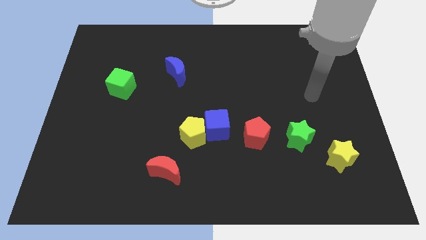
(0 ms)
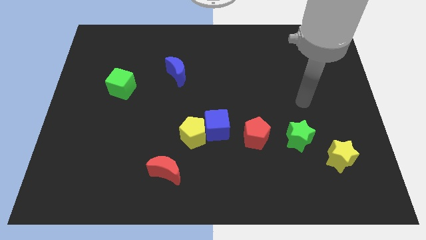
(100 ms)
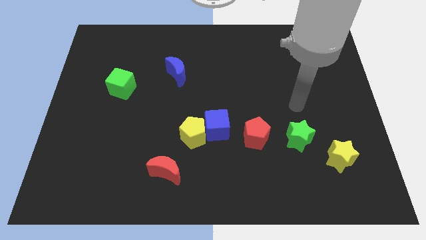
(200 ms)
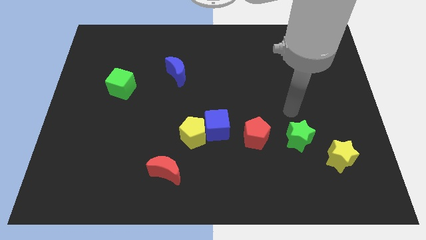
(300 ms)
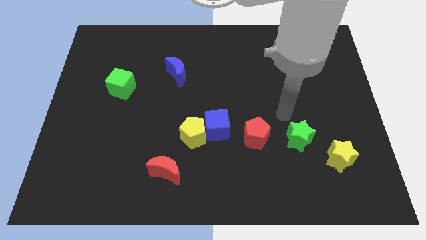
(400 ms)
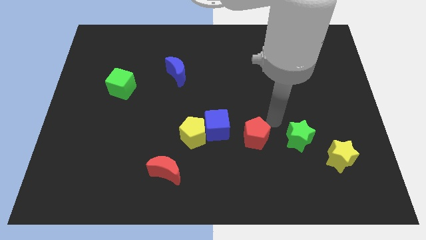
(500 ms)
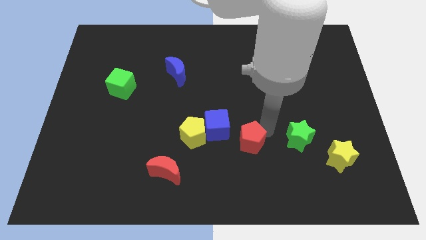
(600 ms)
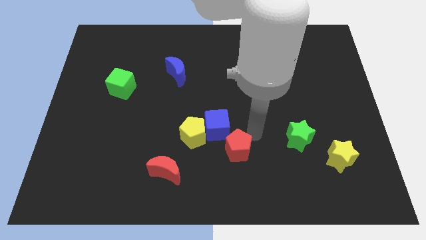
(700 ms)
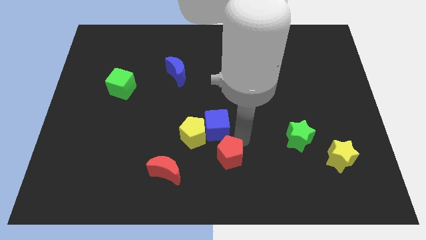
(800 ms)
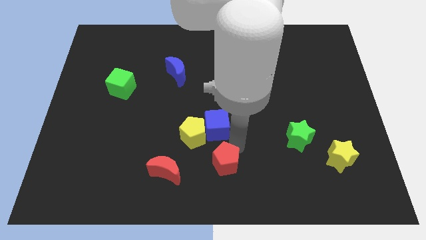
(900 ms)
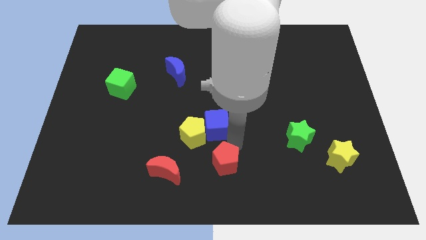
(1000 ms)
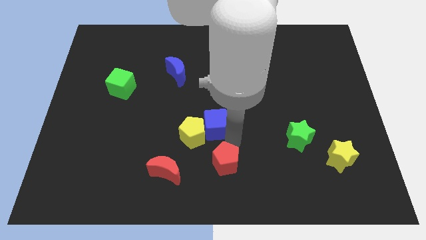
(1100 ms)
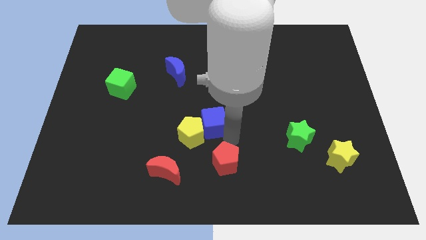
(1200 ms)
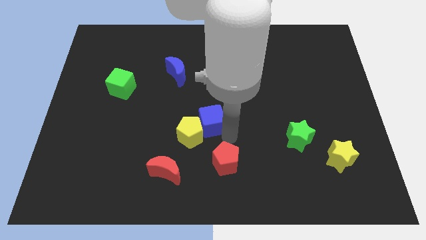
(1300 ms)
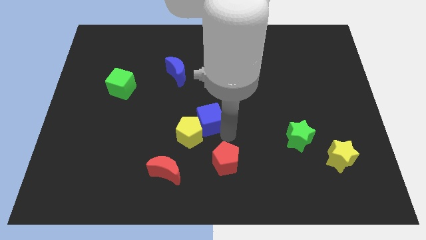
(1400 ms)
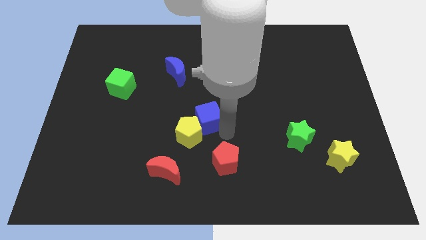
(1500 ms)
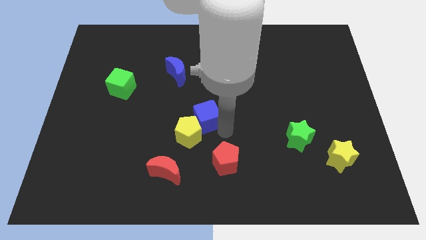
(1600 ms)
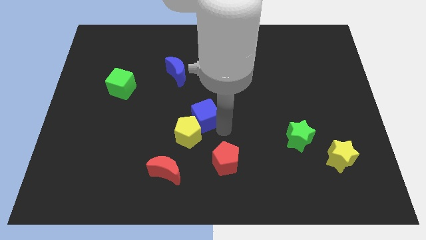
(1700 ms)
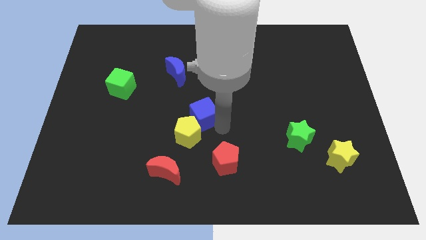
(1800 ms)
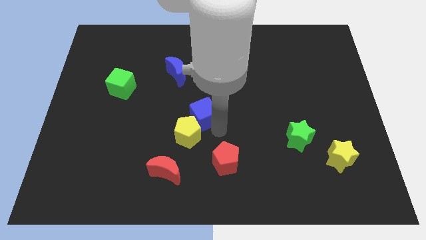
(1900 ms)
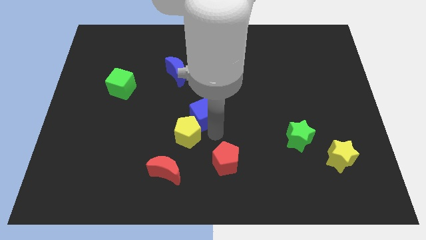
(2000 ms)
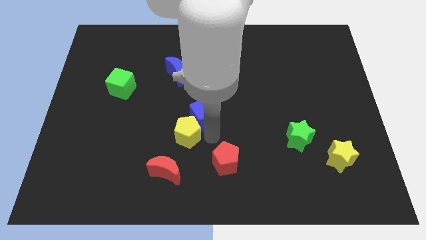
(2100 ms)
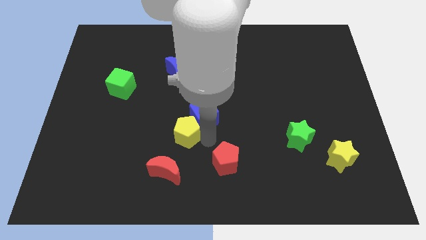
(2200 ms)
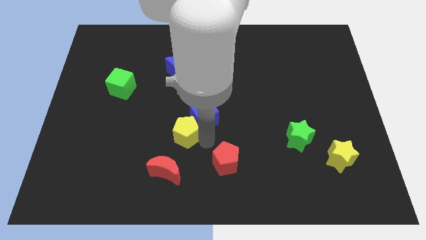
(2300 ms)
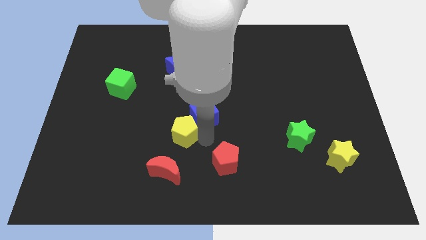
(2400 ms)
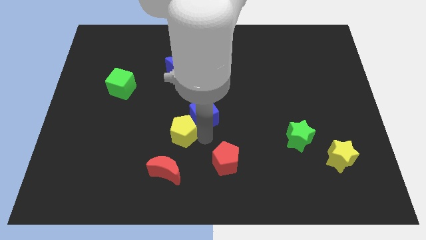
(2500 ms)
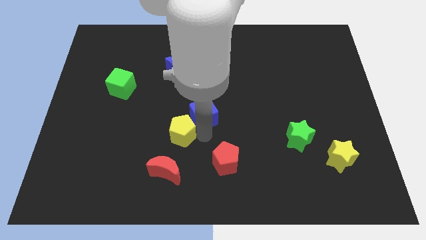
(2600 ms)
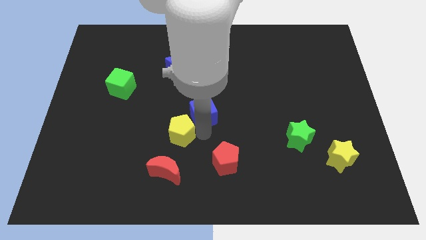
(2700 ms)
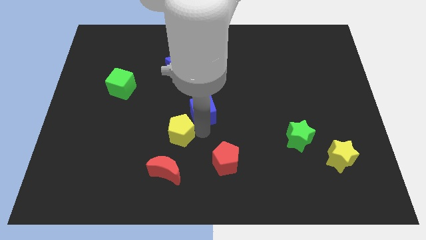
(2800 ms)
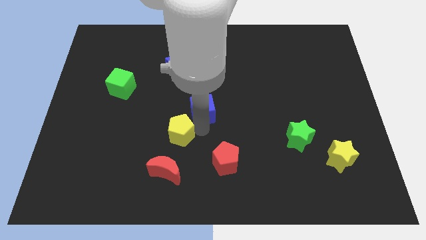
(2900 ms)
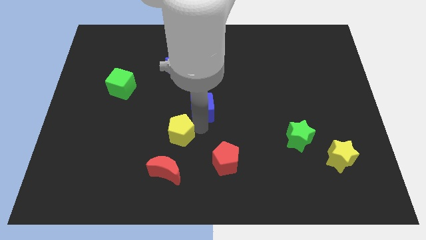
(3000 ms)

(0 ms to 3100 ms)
separate the blue cube from the yellow pentagon and red pentagon

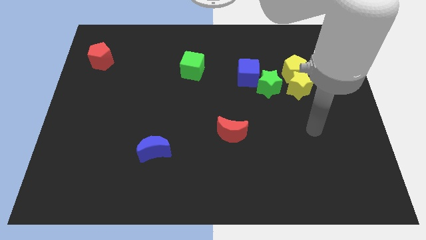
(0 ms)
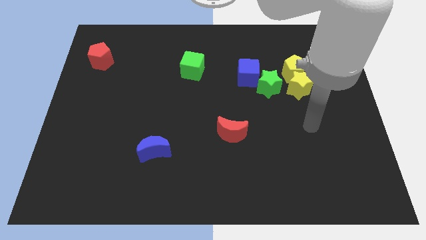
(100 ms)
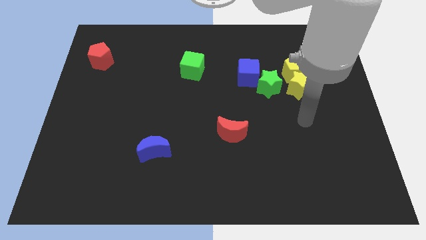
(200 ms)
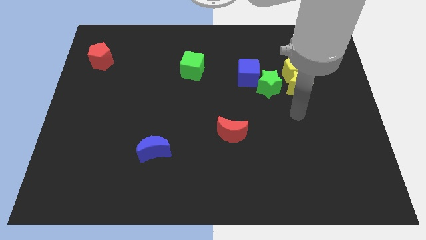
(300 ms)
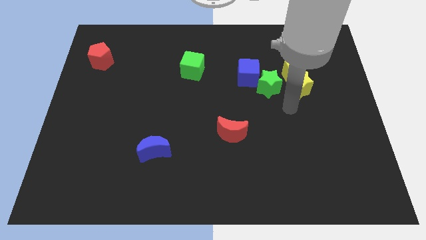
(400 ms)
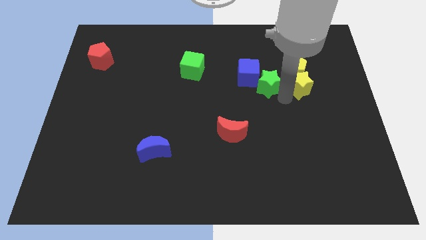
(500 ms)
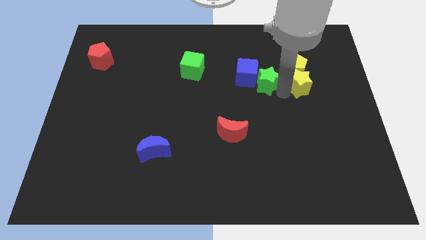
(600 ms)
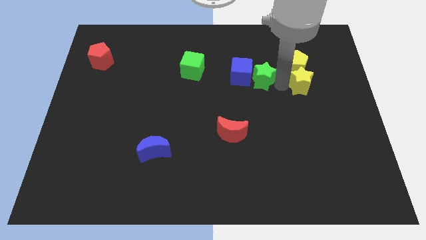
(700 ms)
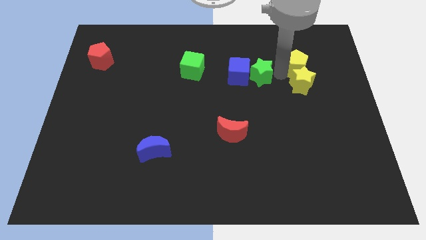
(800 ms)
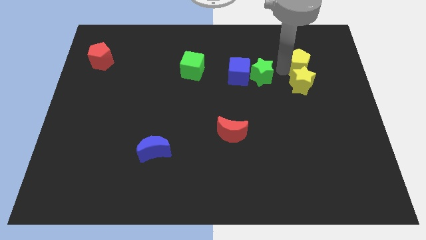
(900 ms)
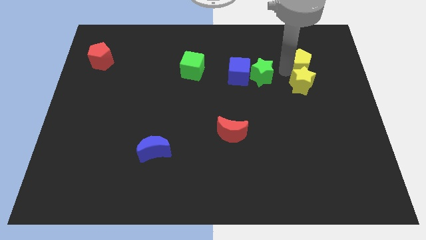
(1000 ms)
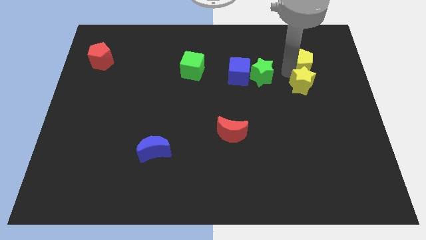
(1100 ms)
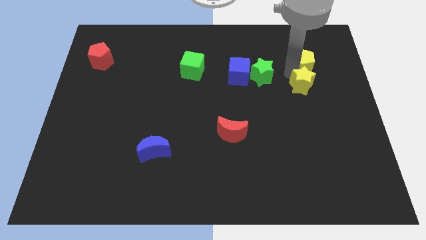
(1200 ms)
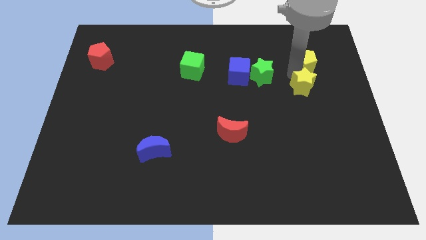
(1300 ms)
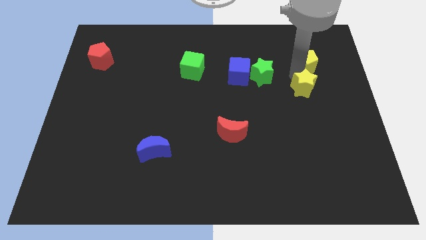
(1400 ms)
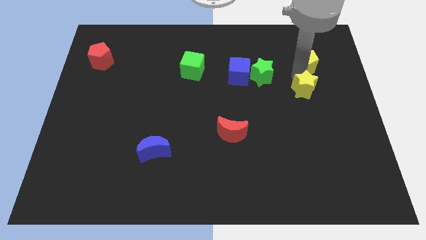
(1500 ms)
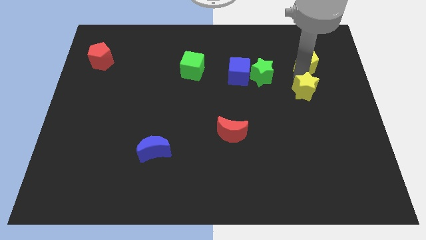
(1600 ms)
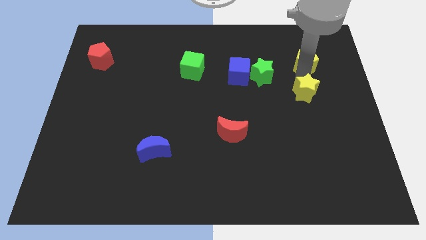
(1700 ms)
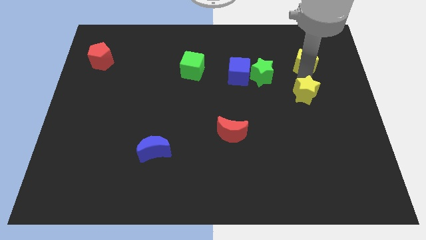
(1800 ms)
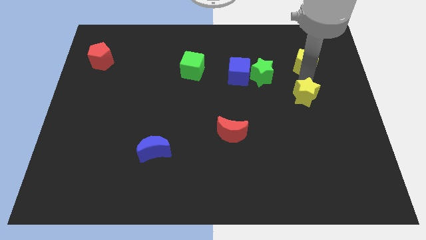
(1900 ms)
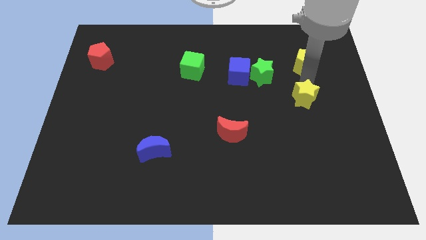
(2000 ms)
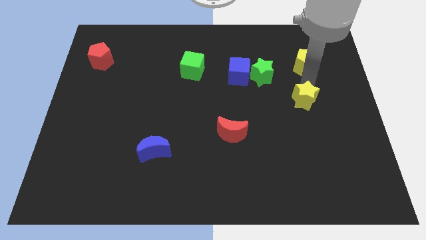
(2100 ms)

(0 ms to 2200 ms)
pull the yellow star apart from the yellow pentagon and green star

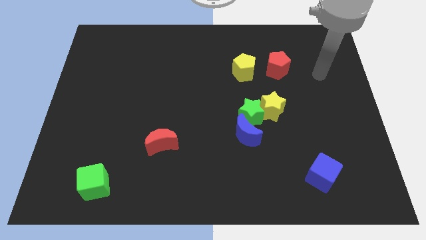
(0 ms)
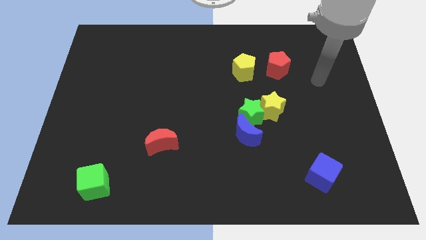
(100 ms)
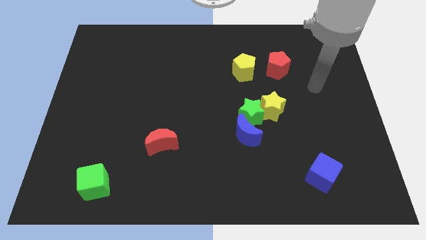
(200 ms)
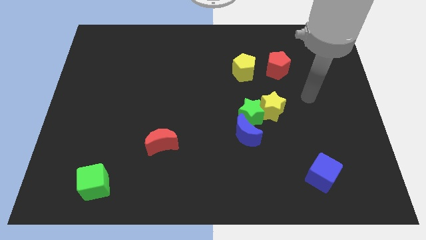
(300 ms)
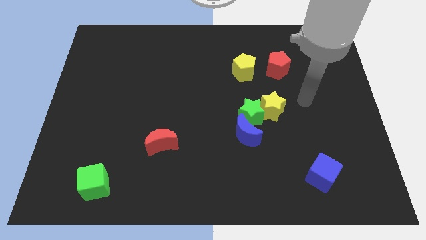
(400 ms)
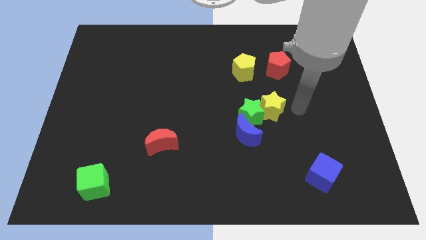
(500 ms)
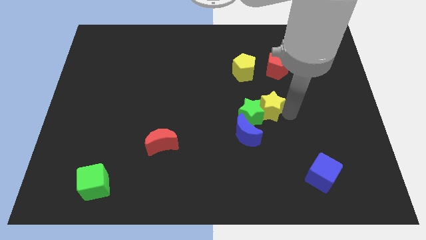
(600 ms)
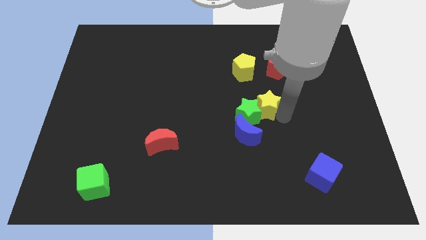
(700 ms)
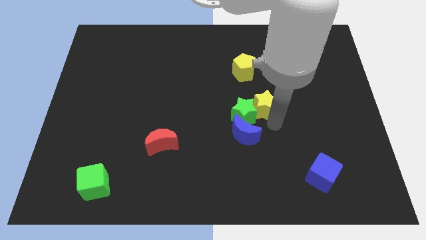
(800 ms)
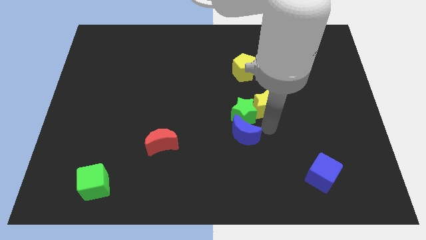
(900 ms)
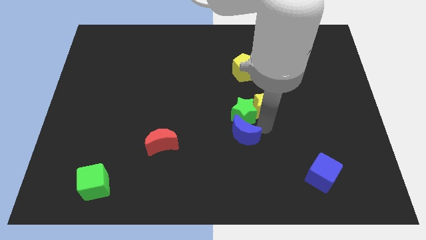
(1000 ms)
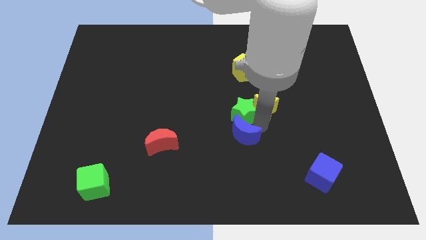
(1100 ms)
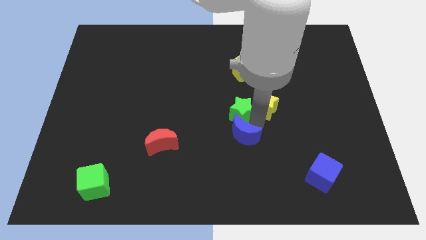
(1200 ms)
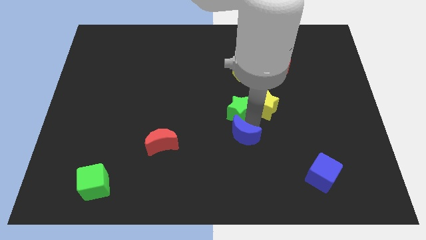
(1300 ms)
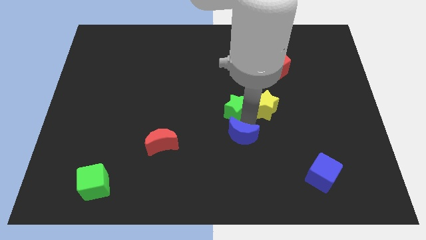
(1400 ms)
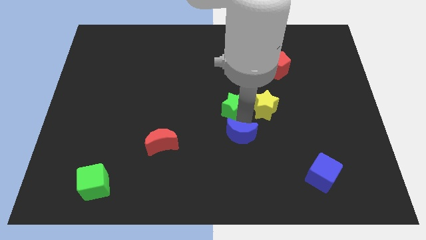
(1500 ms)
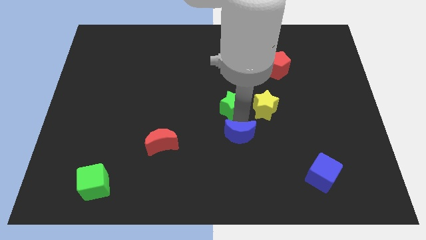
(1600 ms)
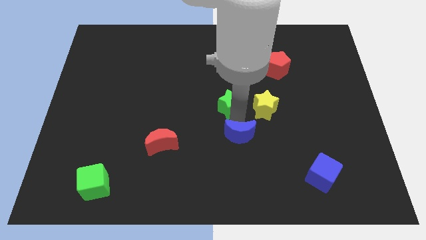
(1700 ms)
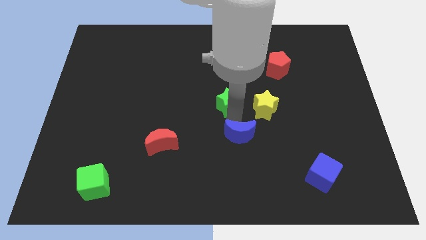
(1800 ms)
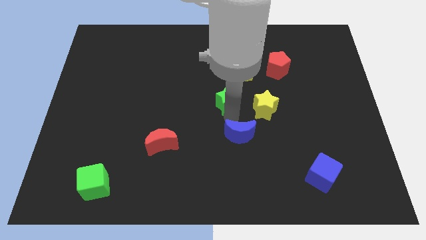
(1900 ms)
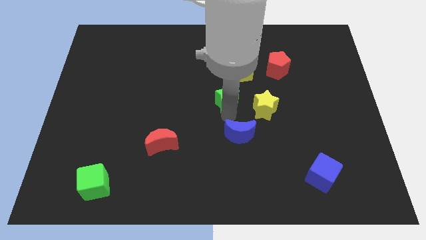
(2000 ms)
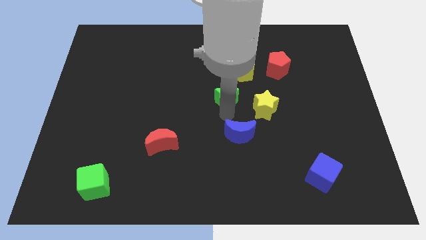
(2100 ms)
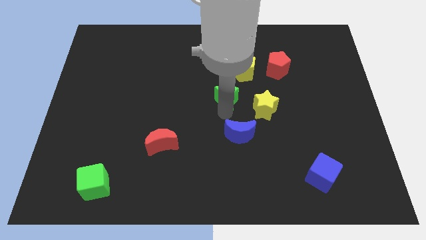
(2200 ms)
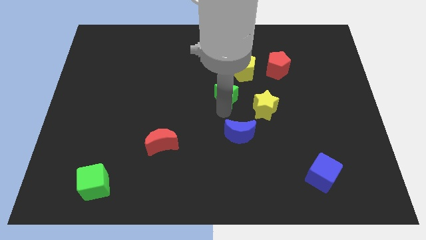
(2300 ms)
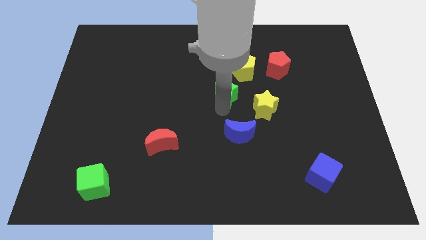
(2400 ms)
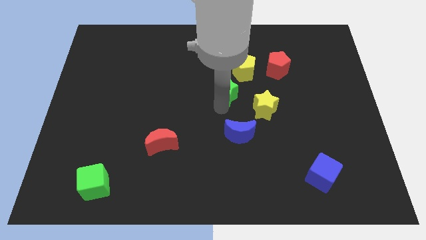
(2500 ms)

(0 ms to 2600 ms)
pull the green star apart from the blue moon and yellow star

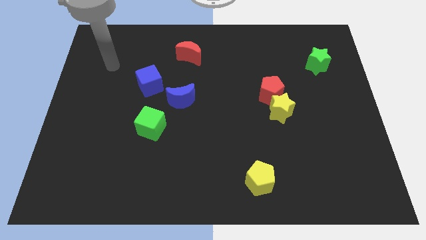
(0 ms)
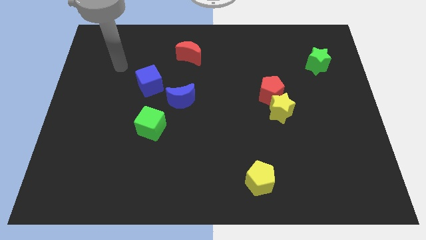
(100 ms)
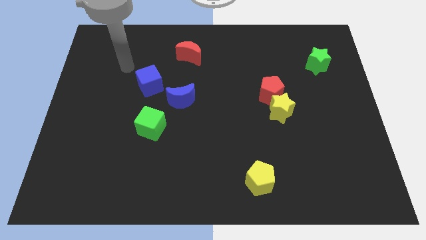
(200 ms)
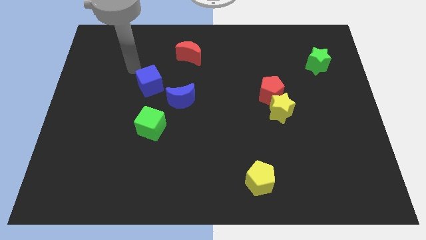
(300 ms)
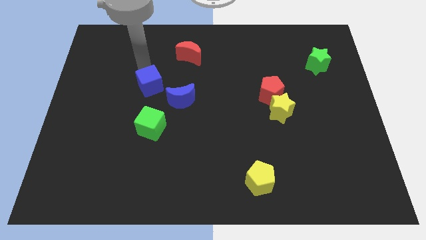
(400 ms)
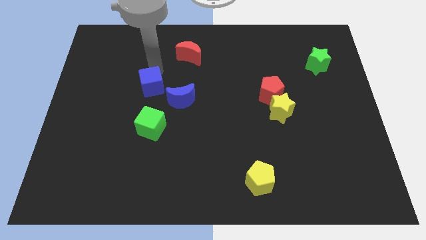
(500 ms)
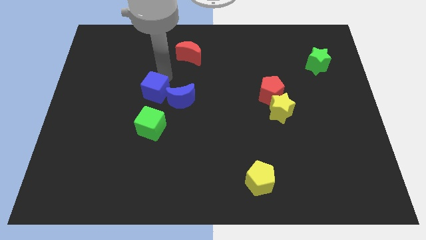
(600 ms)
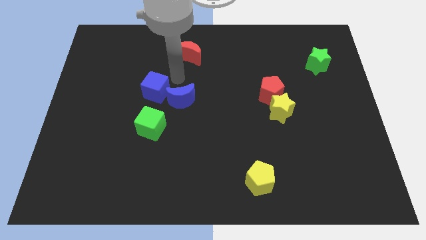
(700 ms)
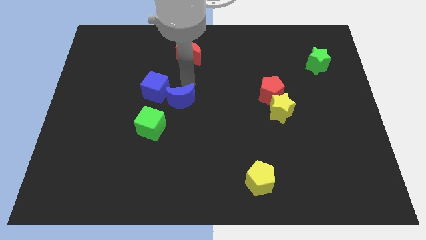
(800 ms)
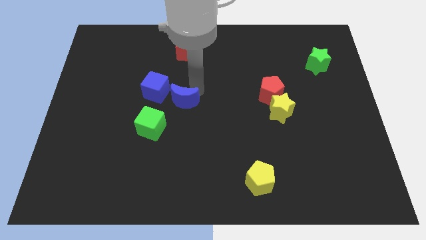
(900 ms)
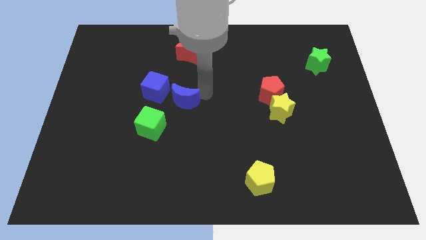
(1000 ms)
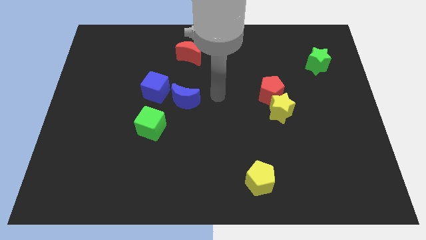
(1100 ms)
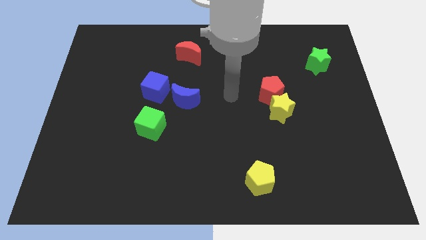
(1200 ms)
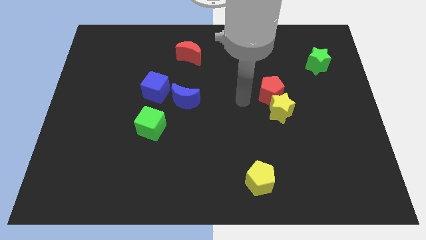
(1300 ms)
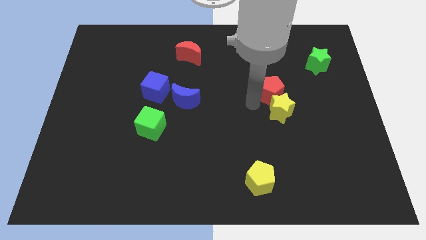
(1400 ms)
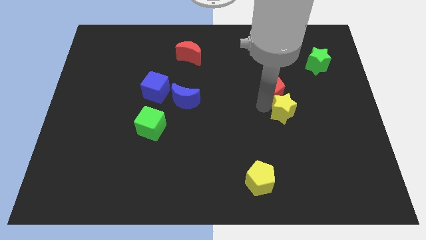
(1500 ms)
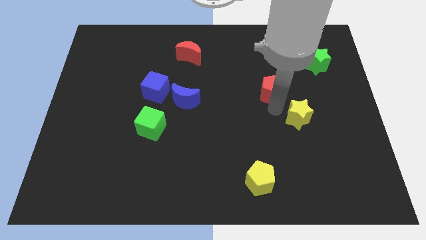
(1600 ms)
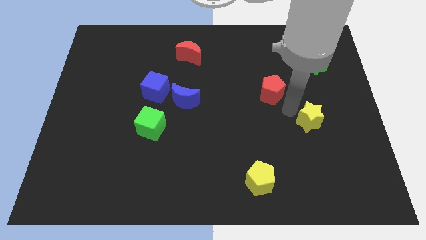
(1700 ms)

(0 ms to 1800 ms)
move the red pentagon away from the yellow star
